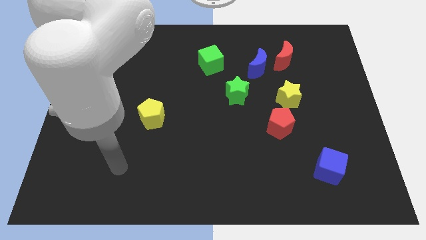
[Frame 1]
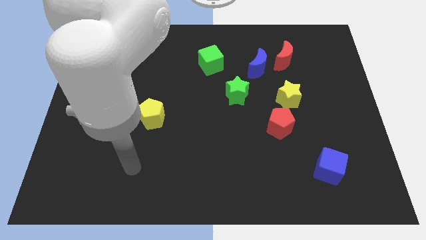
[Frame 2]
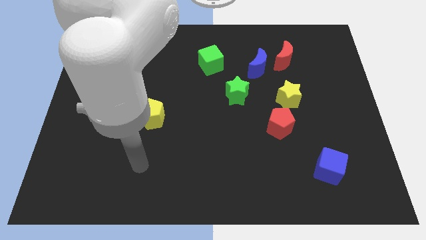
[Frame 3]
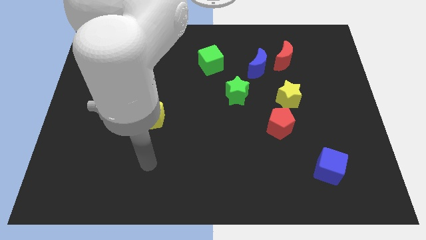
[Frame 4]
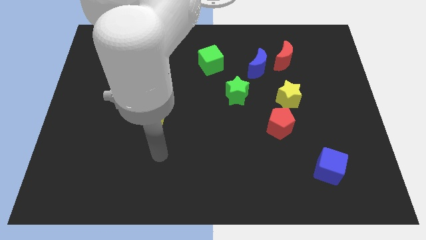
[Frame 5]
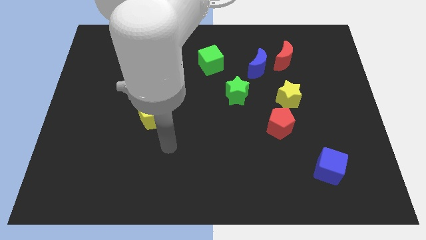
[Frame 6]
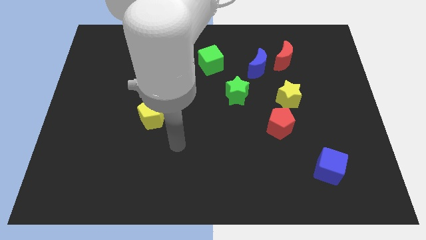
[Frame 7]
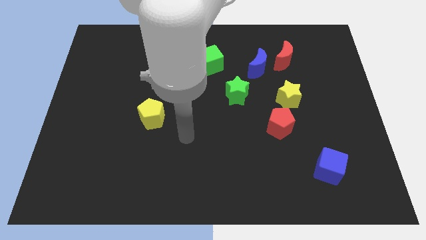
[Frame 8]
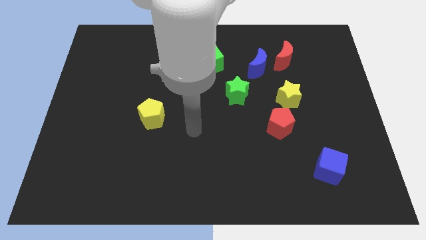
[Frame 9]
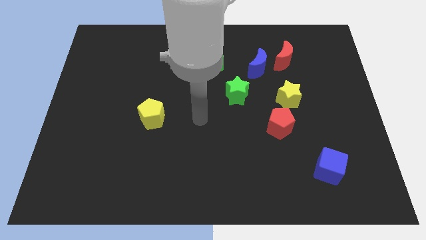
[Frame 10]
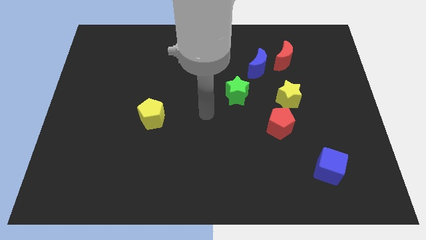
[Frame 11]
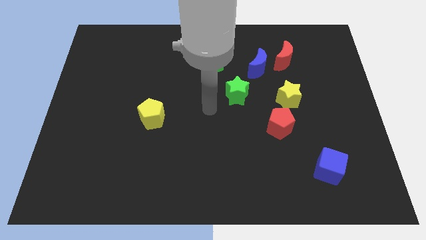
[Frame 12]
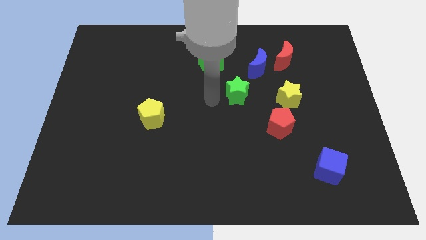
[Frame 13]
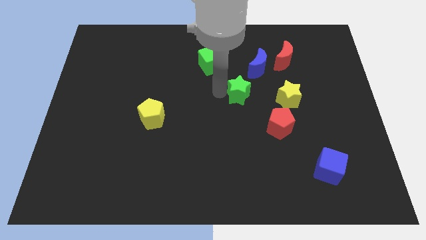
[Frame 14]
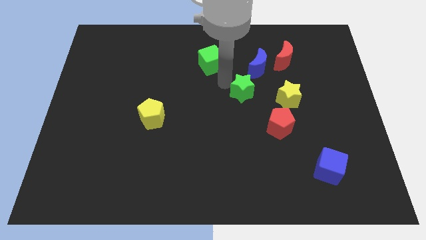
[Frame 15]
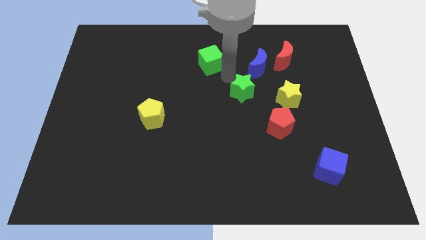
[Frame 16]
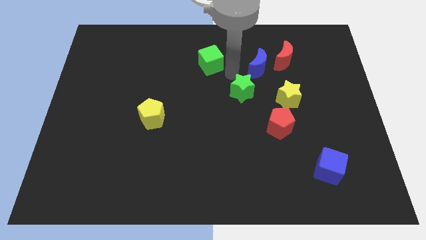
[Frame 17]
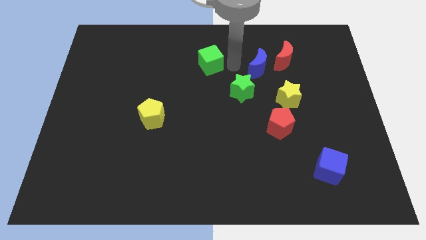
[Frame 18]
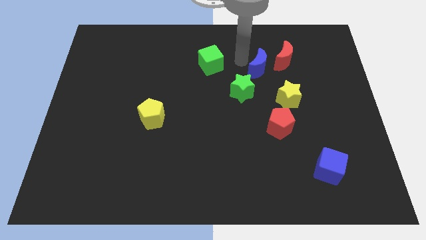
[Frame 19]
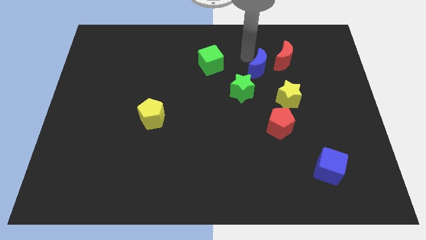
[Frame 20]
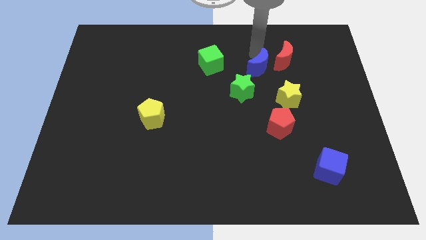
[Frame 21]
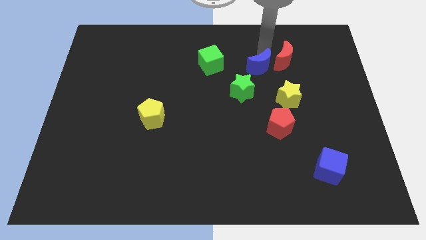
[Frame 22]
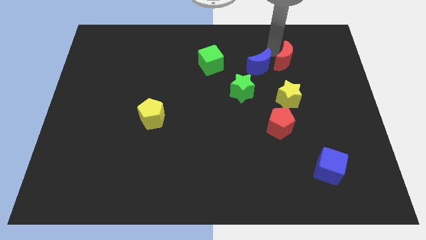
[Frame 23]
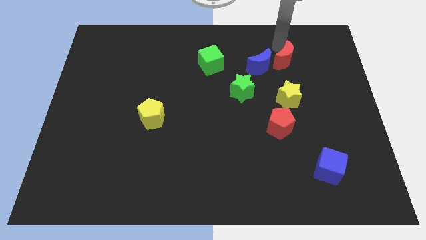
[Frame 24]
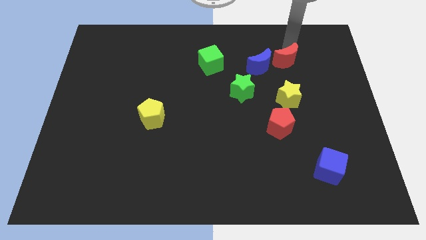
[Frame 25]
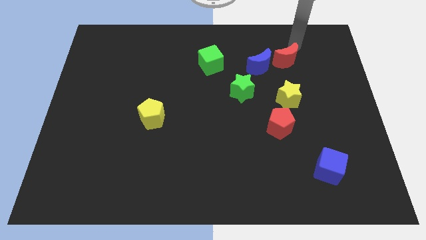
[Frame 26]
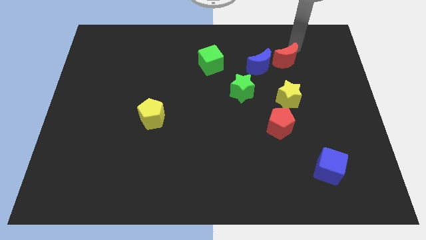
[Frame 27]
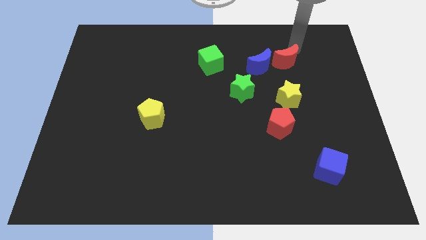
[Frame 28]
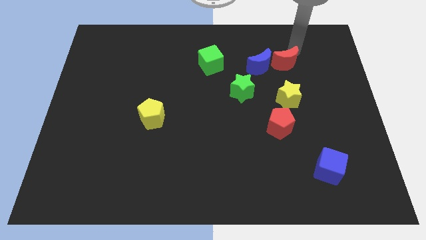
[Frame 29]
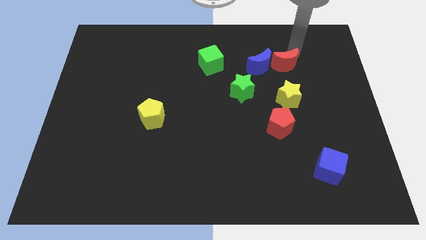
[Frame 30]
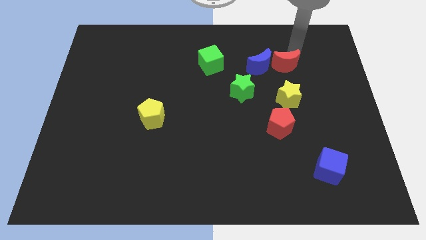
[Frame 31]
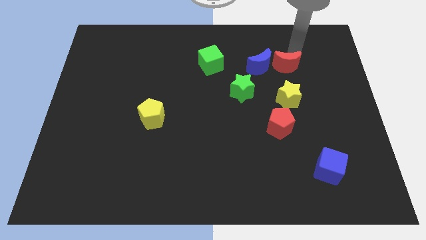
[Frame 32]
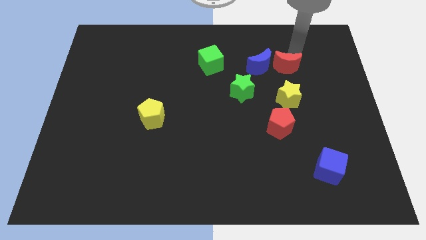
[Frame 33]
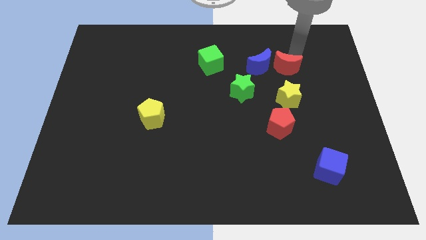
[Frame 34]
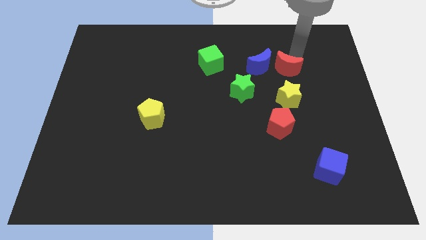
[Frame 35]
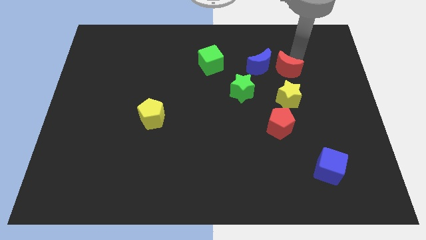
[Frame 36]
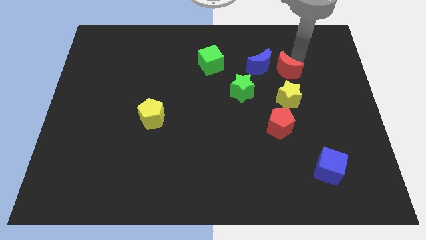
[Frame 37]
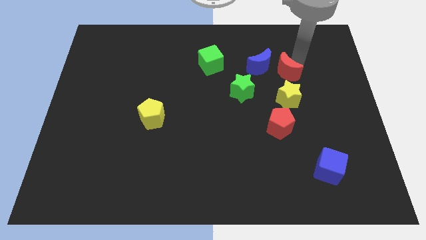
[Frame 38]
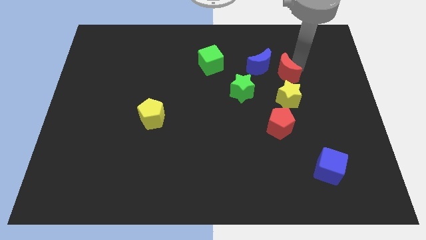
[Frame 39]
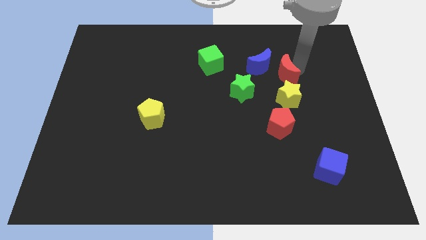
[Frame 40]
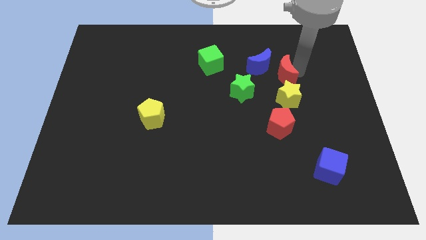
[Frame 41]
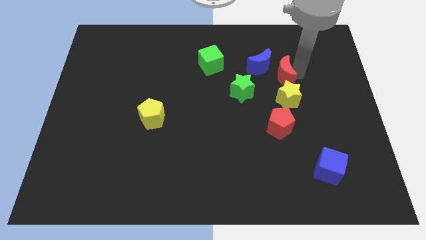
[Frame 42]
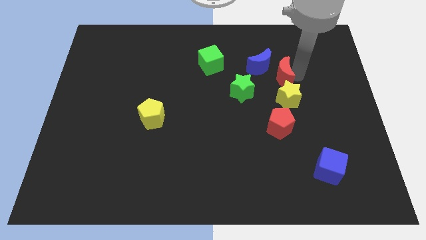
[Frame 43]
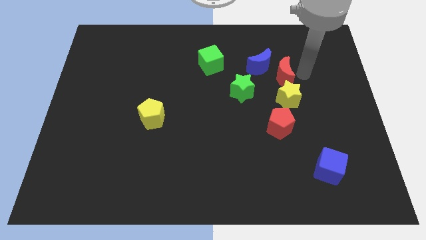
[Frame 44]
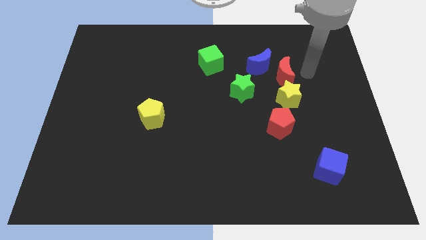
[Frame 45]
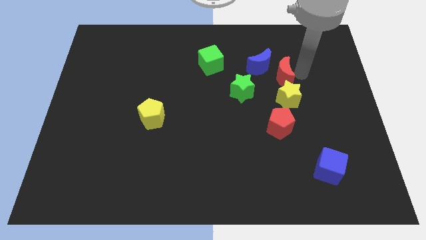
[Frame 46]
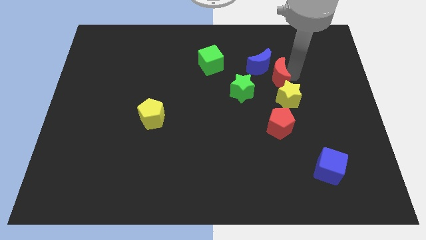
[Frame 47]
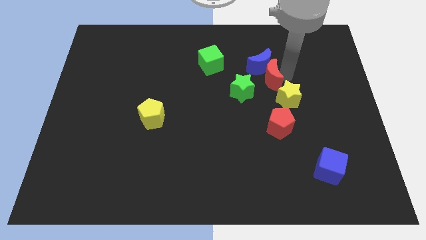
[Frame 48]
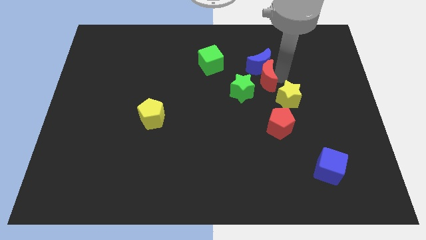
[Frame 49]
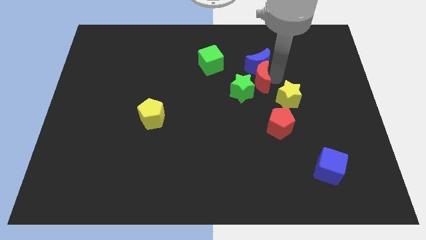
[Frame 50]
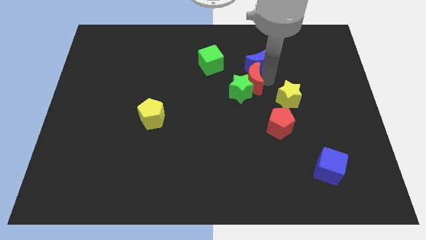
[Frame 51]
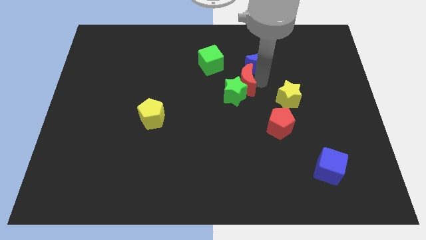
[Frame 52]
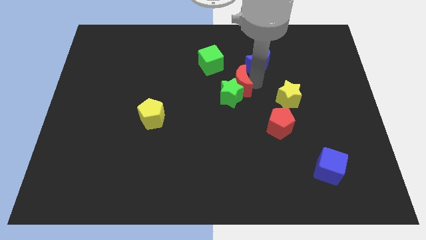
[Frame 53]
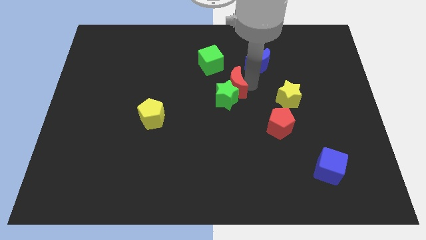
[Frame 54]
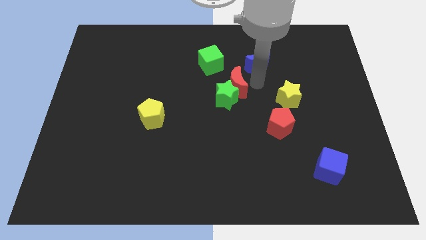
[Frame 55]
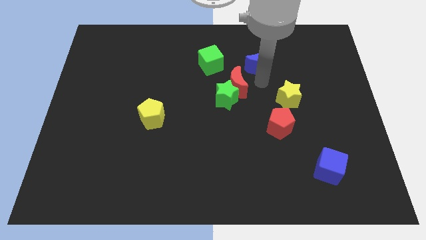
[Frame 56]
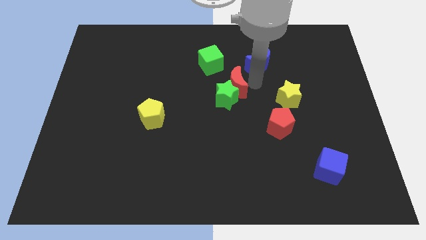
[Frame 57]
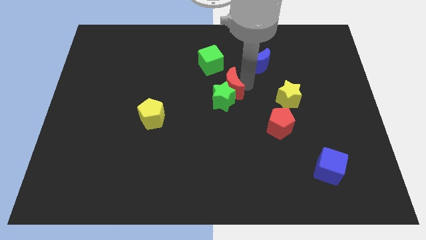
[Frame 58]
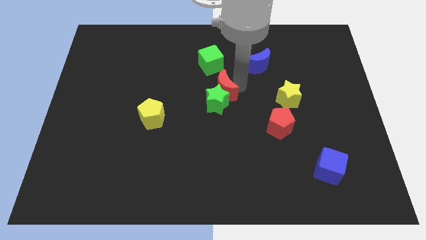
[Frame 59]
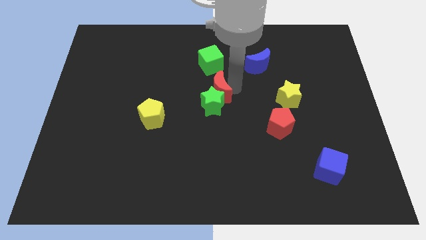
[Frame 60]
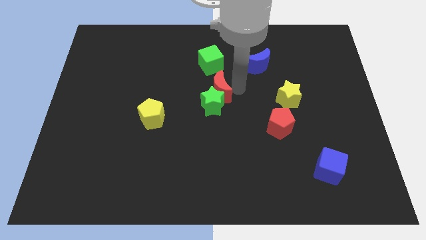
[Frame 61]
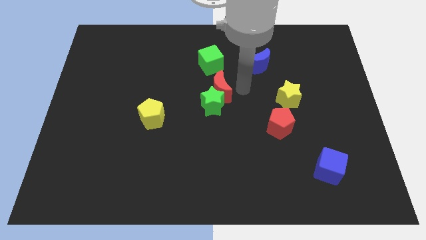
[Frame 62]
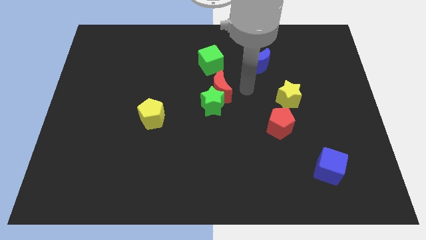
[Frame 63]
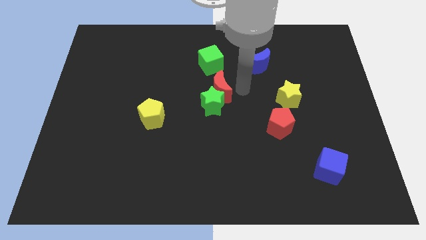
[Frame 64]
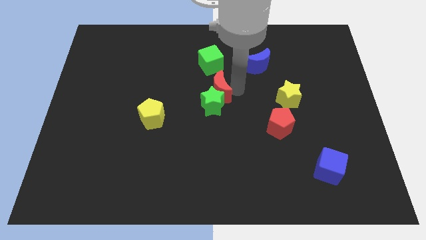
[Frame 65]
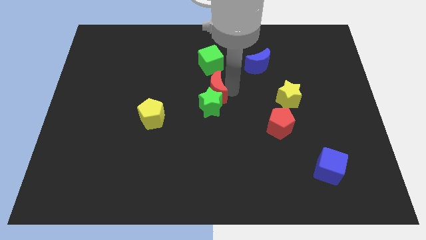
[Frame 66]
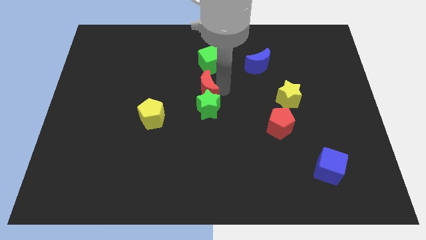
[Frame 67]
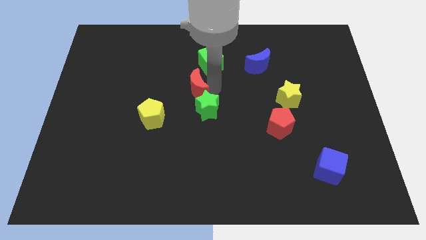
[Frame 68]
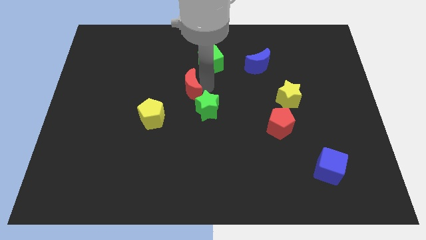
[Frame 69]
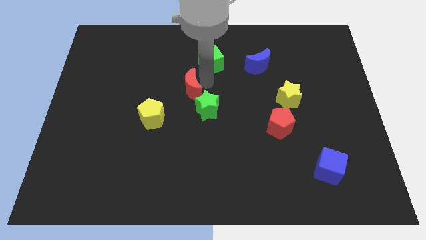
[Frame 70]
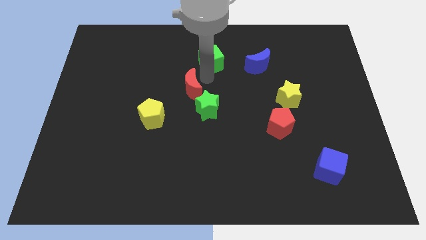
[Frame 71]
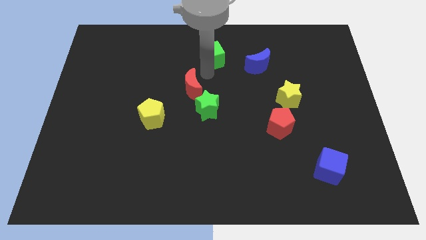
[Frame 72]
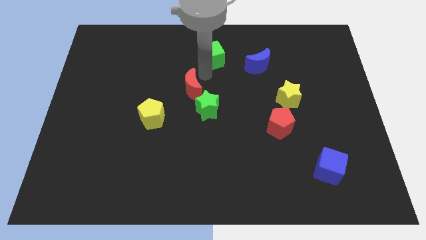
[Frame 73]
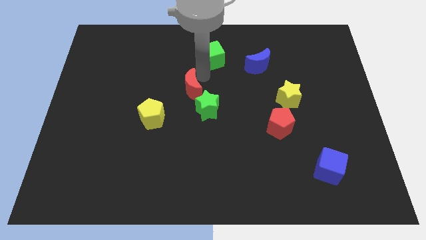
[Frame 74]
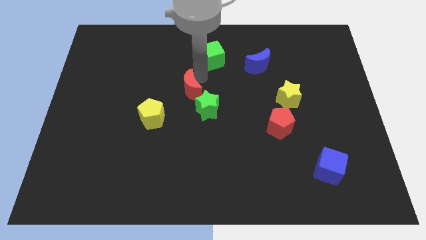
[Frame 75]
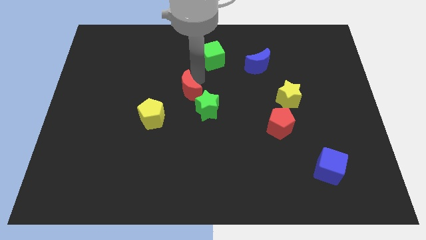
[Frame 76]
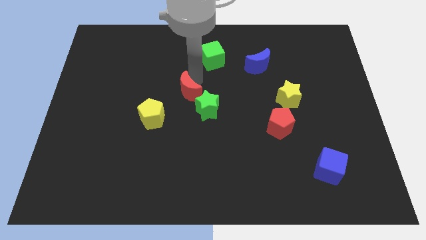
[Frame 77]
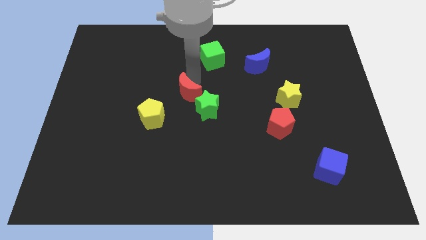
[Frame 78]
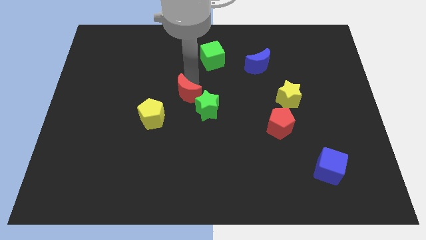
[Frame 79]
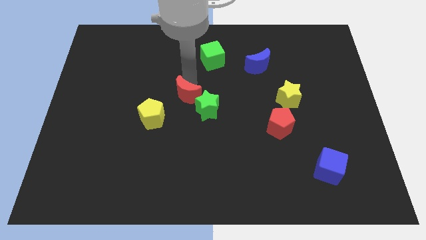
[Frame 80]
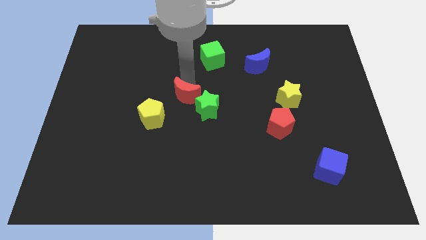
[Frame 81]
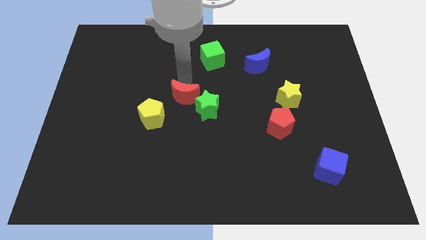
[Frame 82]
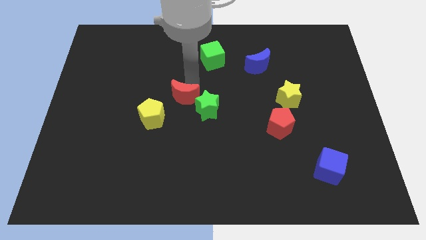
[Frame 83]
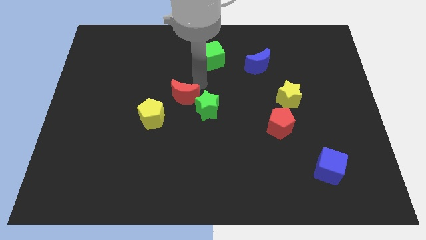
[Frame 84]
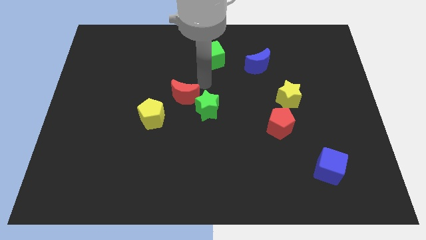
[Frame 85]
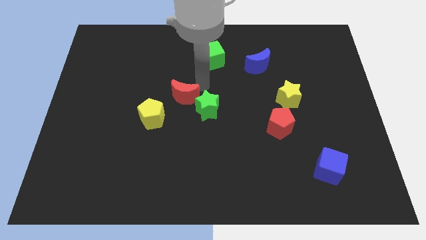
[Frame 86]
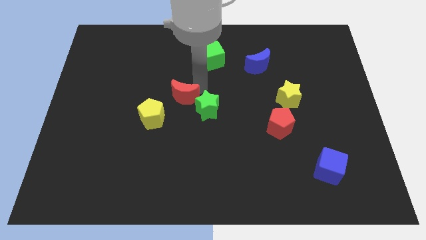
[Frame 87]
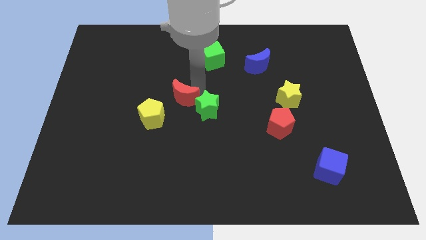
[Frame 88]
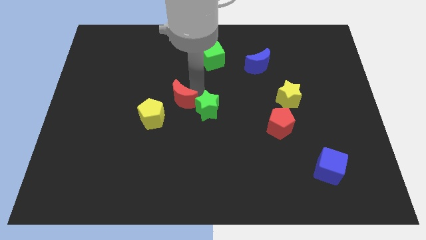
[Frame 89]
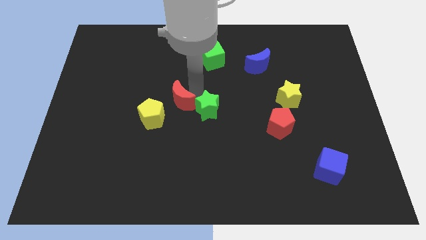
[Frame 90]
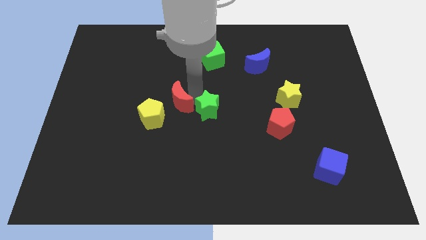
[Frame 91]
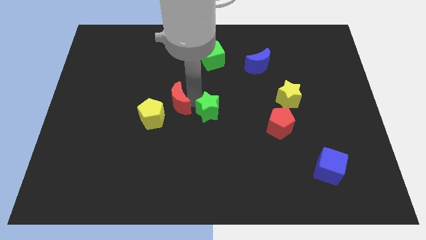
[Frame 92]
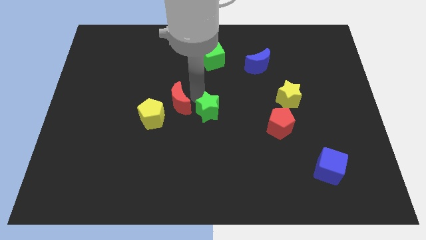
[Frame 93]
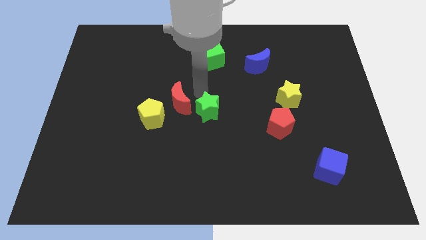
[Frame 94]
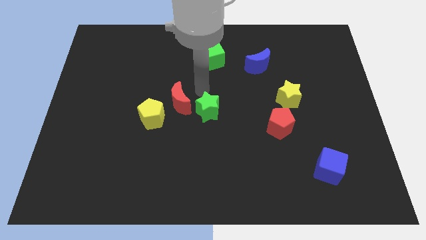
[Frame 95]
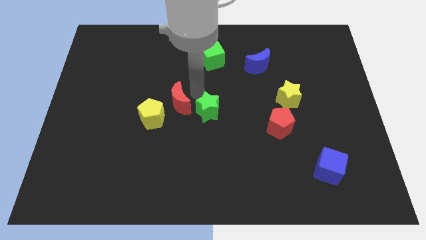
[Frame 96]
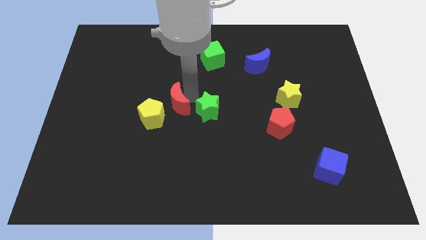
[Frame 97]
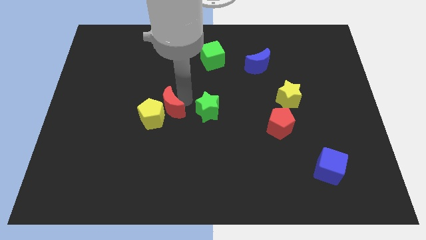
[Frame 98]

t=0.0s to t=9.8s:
push the red moon to the yellow pentagon
